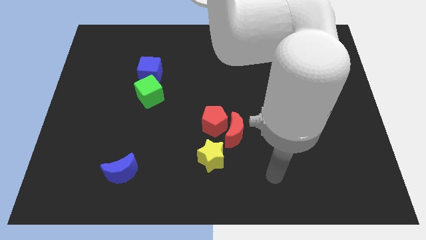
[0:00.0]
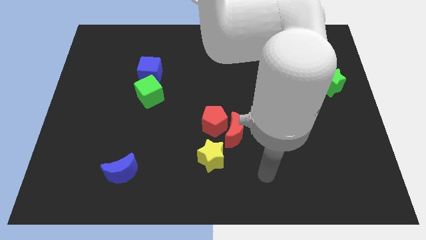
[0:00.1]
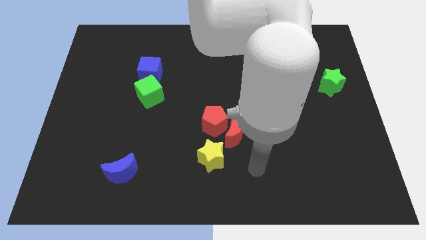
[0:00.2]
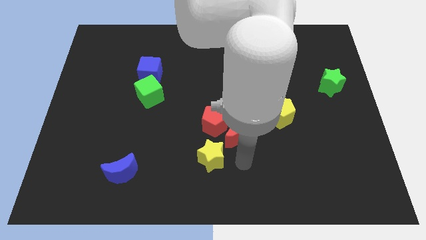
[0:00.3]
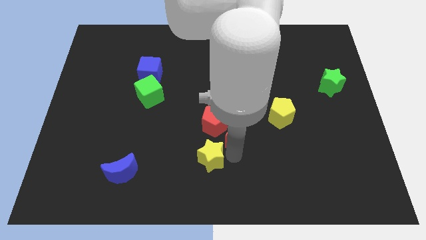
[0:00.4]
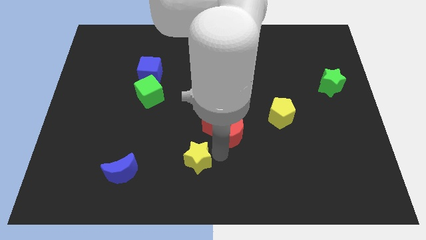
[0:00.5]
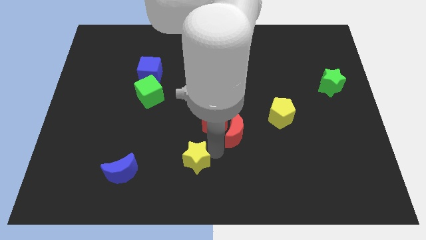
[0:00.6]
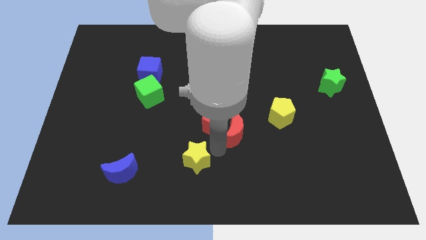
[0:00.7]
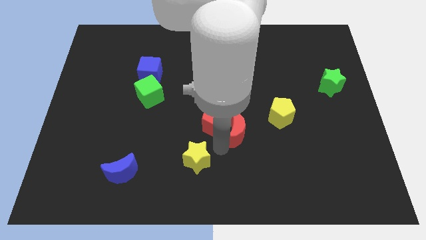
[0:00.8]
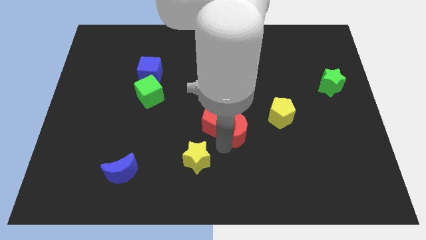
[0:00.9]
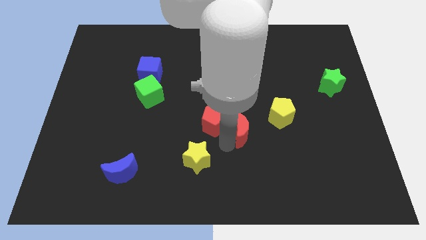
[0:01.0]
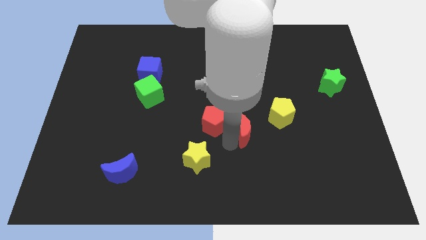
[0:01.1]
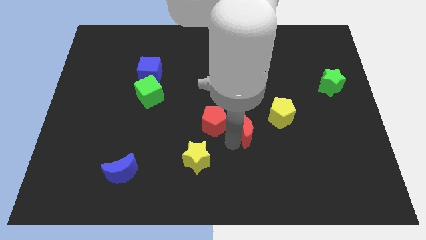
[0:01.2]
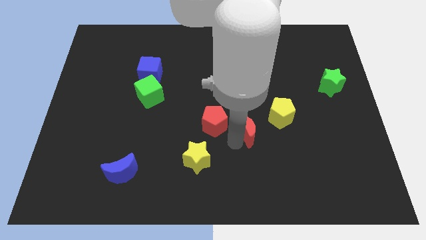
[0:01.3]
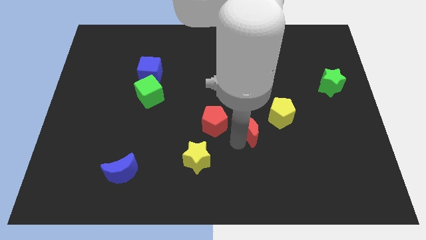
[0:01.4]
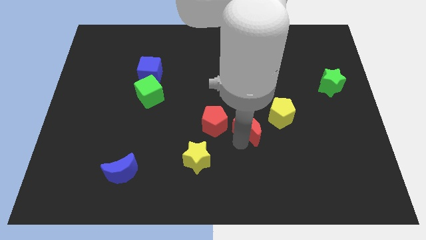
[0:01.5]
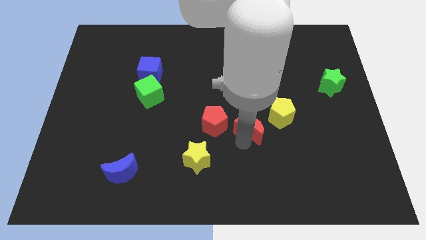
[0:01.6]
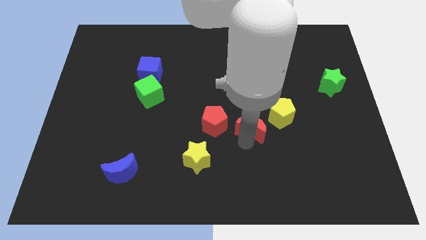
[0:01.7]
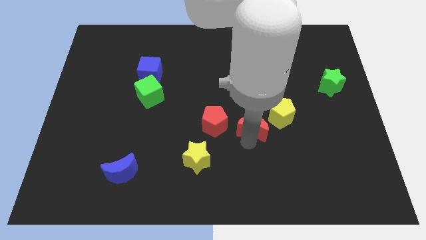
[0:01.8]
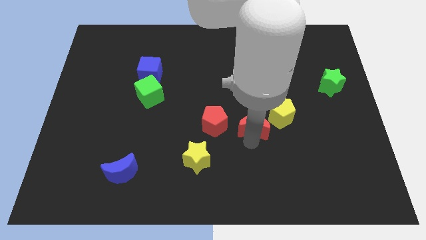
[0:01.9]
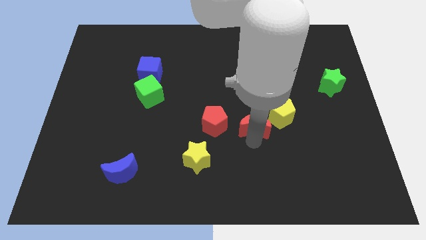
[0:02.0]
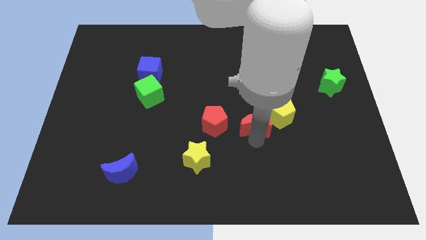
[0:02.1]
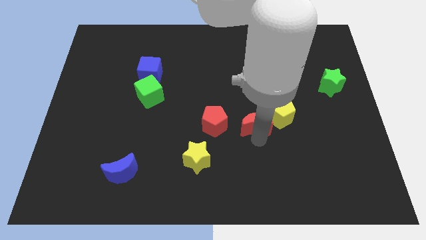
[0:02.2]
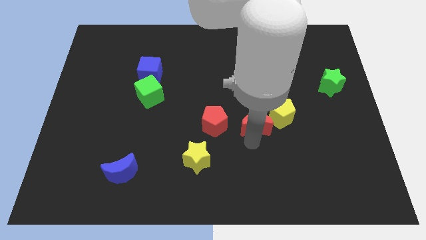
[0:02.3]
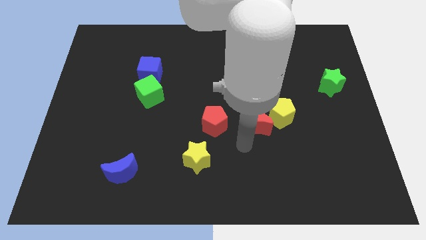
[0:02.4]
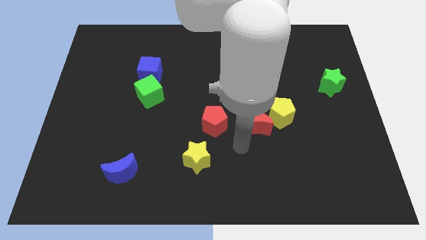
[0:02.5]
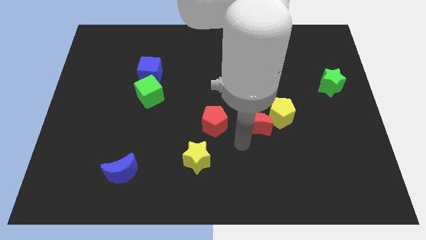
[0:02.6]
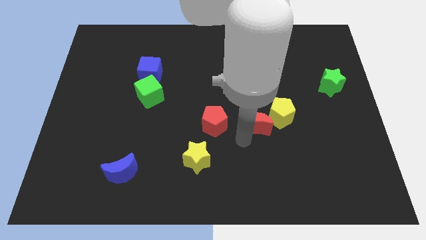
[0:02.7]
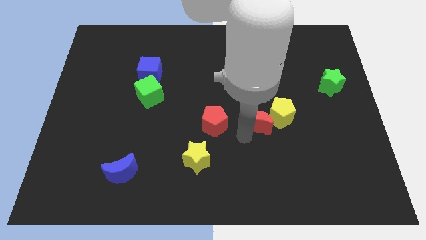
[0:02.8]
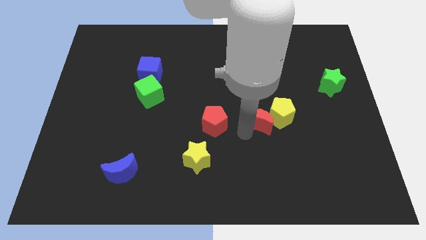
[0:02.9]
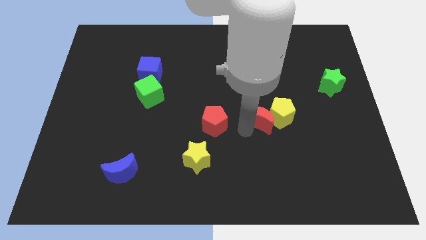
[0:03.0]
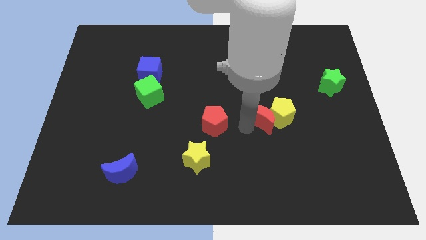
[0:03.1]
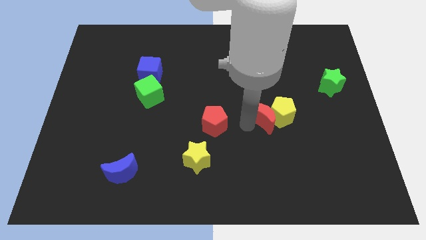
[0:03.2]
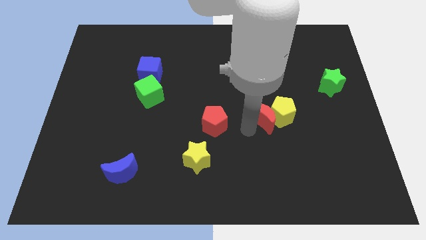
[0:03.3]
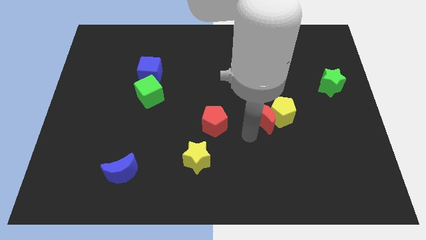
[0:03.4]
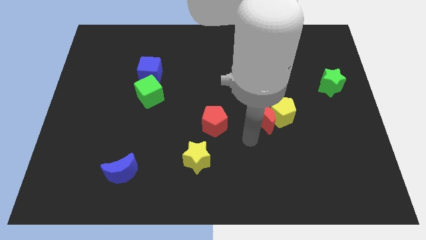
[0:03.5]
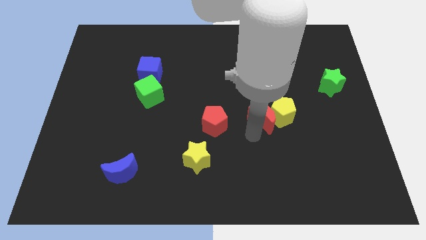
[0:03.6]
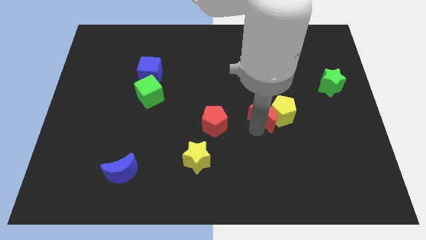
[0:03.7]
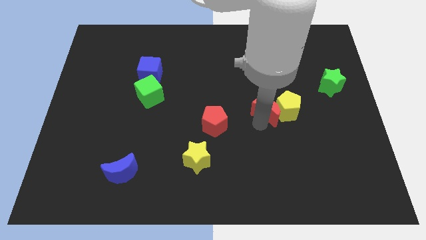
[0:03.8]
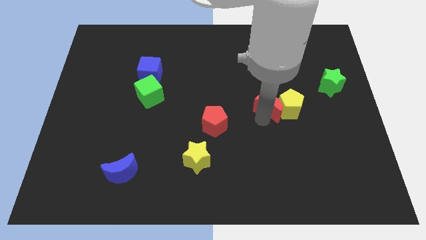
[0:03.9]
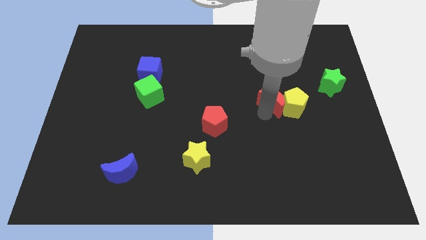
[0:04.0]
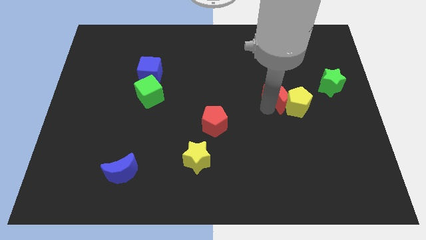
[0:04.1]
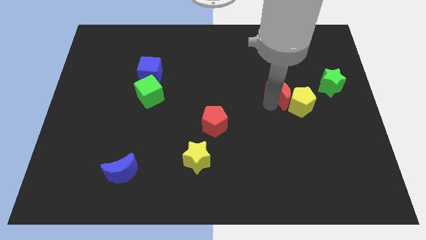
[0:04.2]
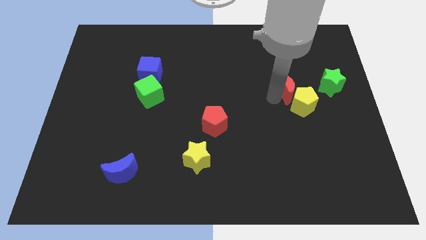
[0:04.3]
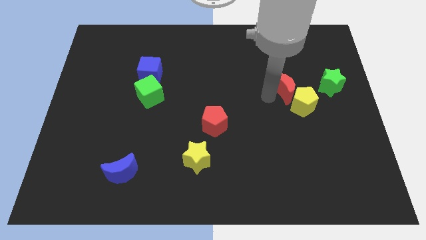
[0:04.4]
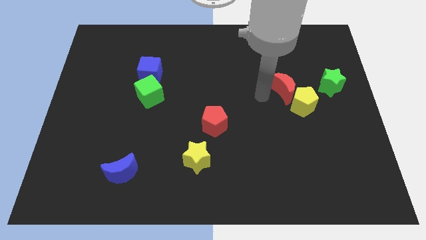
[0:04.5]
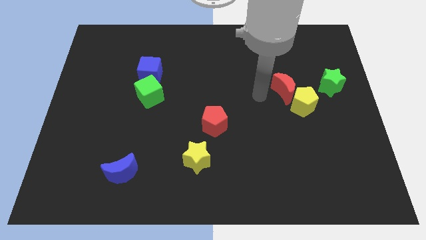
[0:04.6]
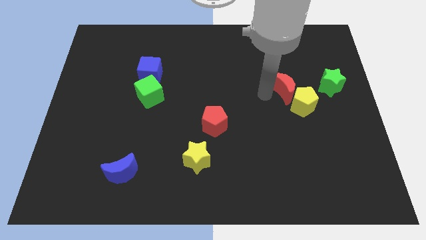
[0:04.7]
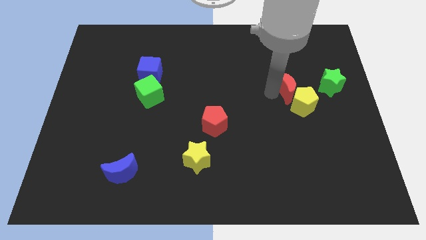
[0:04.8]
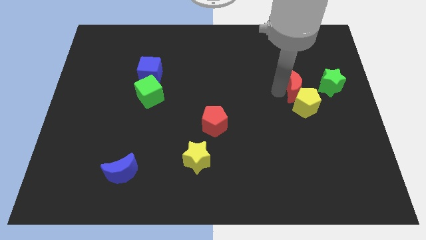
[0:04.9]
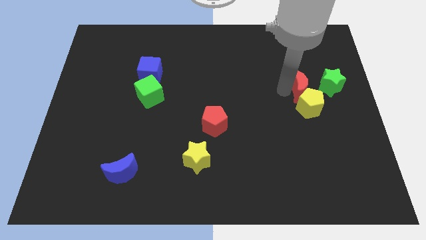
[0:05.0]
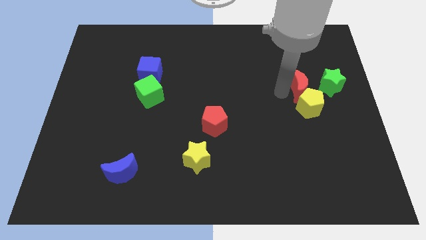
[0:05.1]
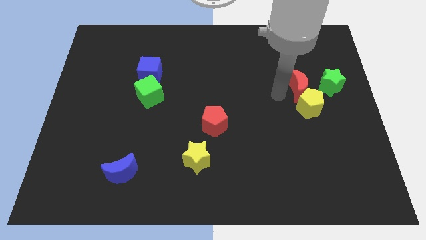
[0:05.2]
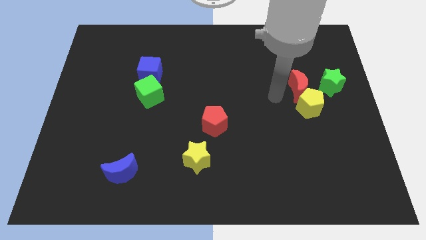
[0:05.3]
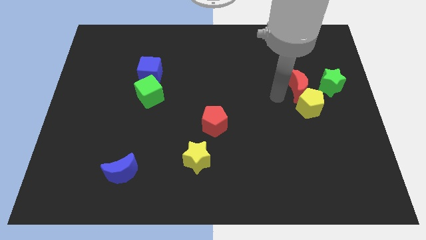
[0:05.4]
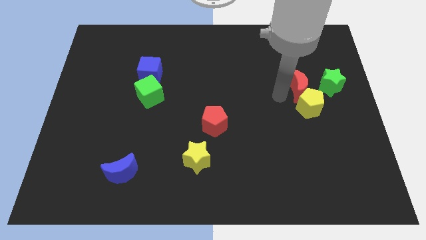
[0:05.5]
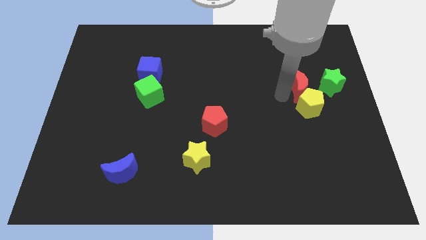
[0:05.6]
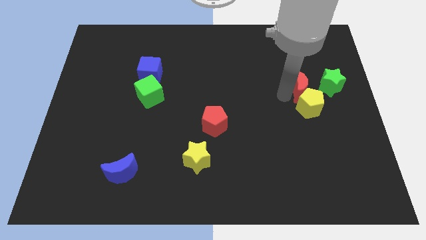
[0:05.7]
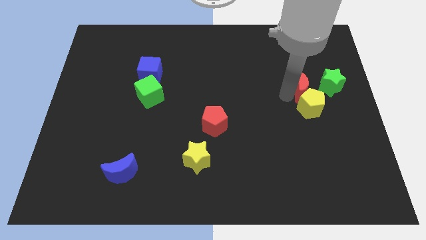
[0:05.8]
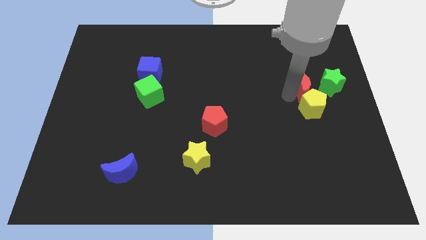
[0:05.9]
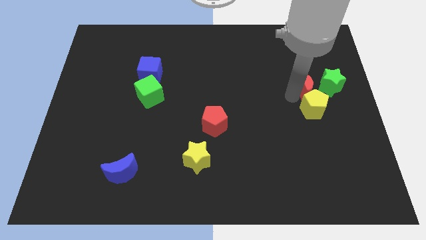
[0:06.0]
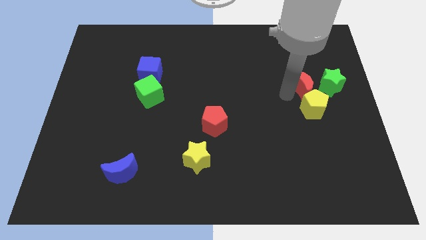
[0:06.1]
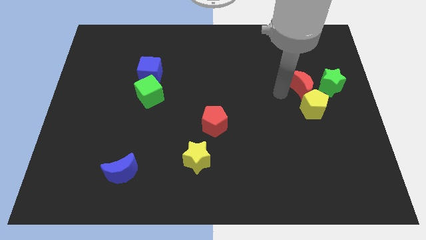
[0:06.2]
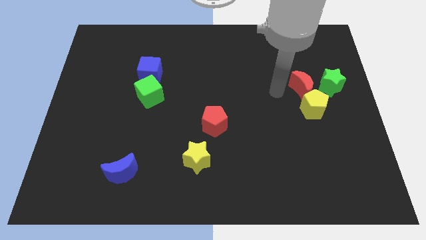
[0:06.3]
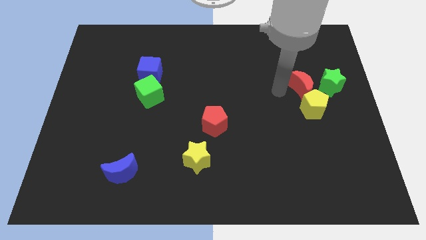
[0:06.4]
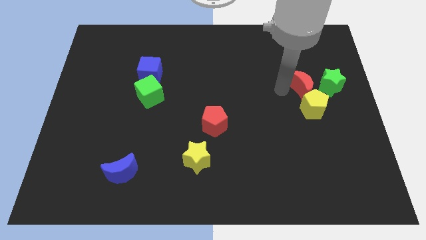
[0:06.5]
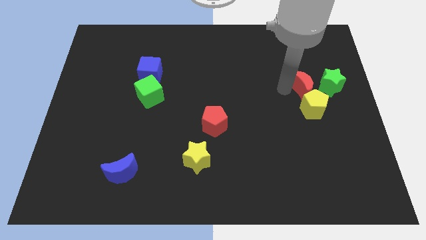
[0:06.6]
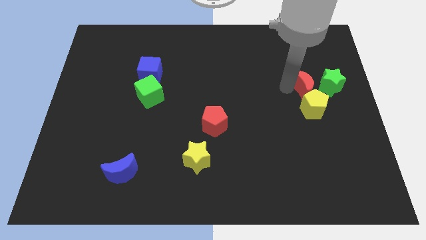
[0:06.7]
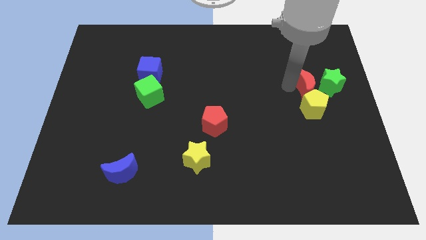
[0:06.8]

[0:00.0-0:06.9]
put the red moon close to the green star
